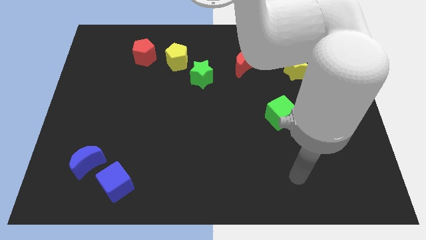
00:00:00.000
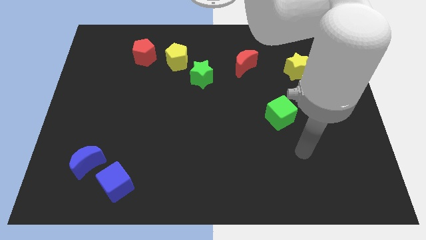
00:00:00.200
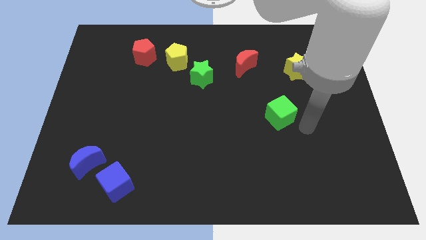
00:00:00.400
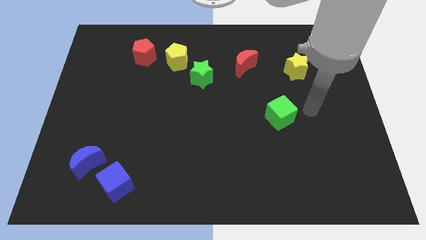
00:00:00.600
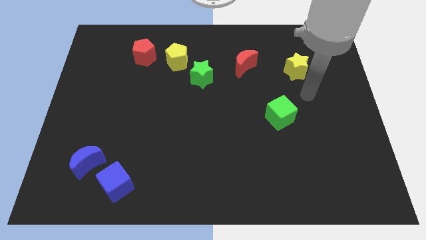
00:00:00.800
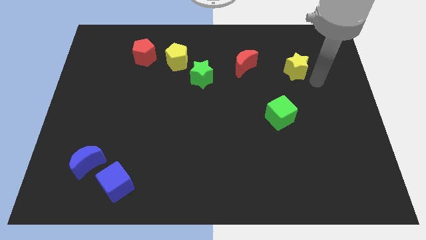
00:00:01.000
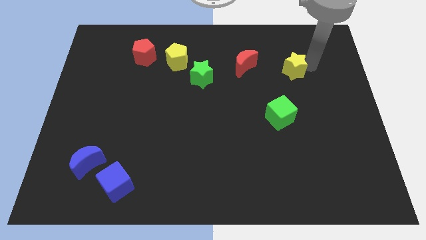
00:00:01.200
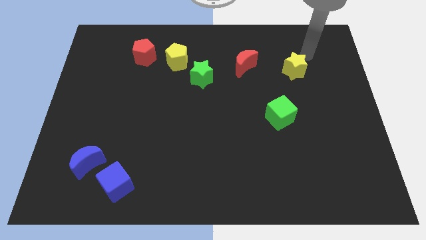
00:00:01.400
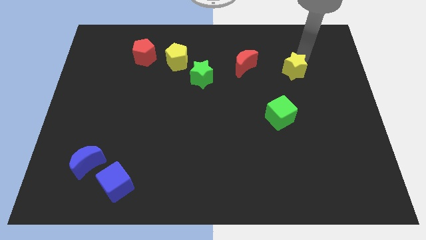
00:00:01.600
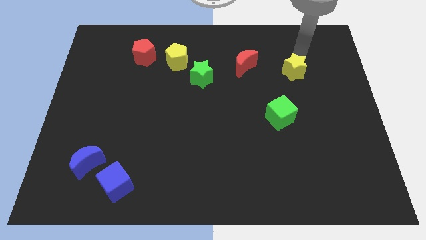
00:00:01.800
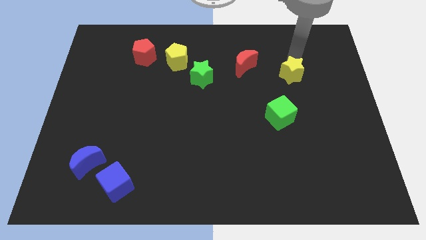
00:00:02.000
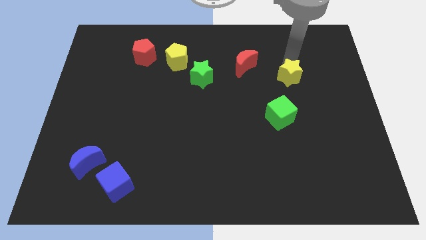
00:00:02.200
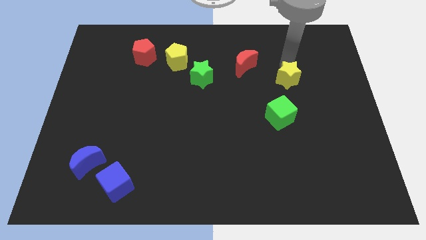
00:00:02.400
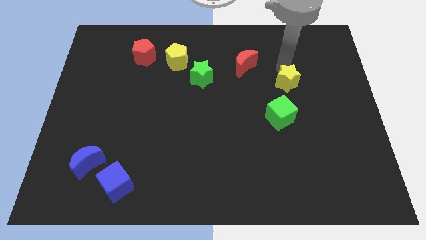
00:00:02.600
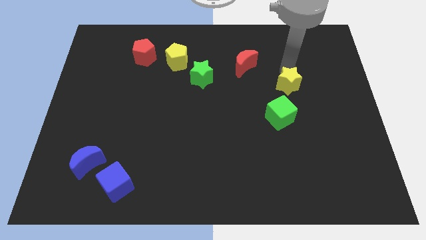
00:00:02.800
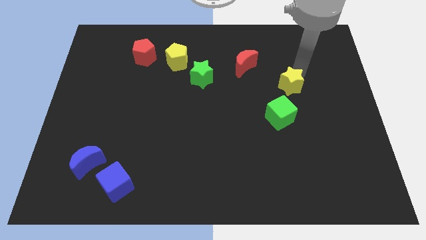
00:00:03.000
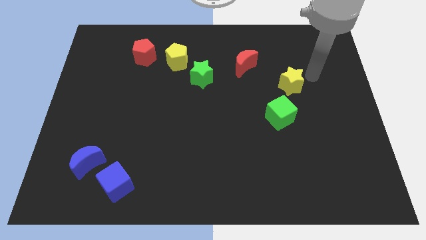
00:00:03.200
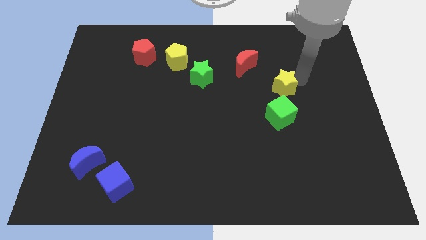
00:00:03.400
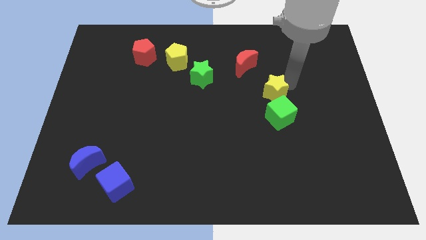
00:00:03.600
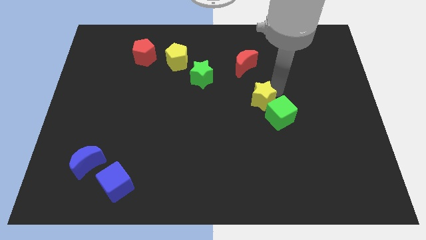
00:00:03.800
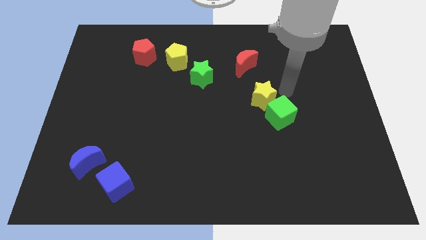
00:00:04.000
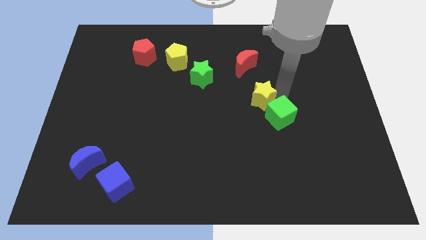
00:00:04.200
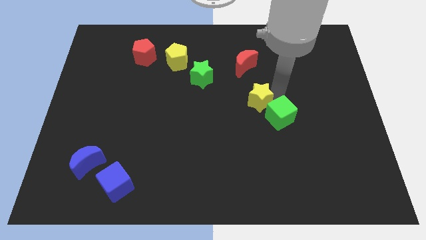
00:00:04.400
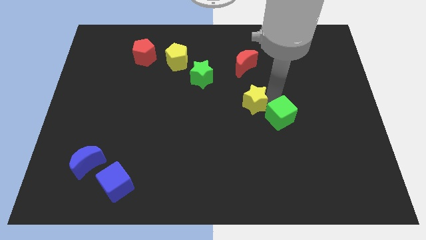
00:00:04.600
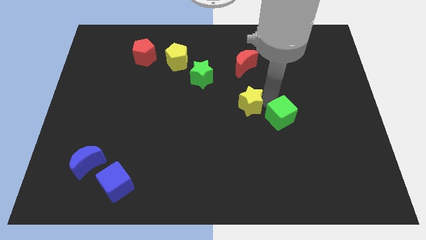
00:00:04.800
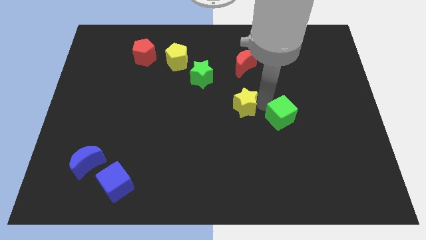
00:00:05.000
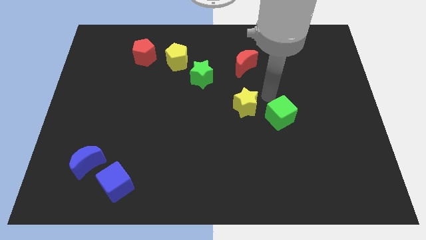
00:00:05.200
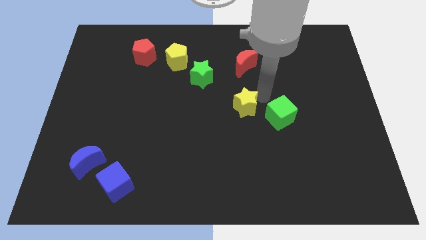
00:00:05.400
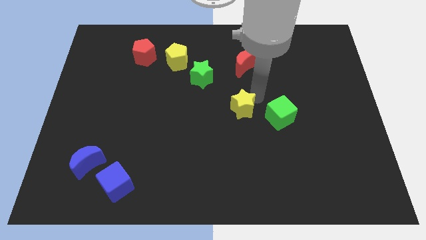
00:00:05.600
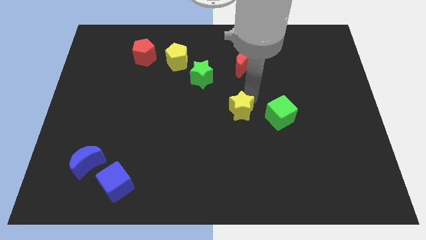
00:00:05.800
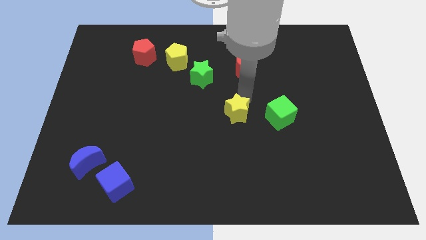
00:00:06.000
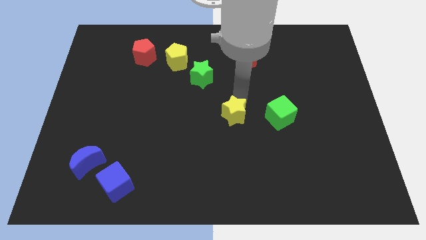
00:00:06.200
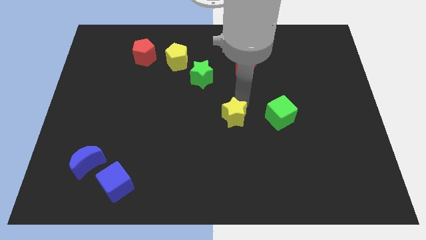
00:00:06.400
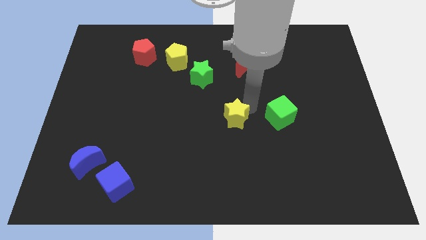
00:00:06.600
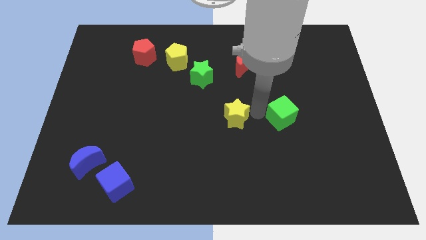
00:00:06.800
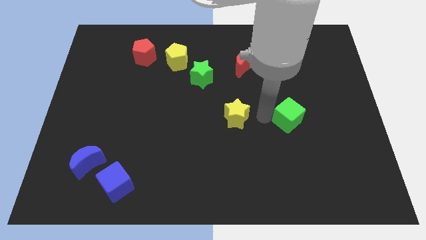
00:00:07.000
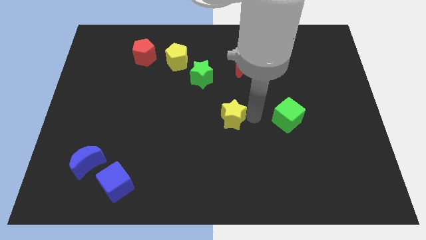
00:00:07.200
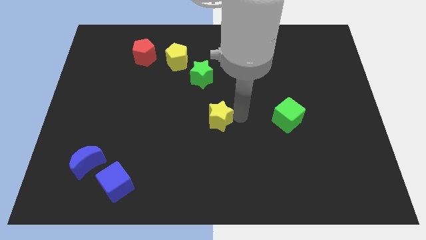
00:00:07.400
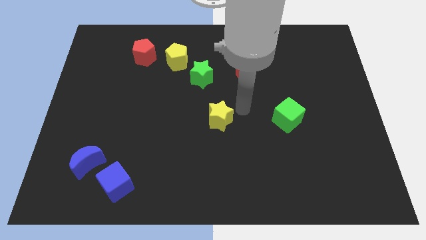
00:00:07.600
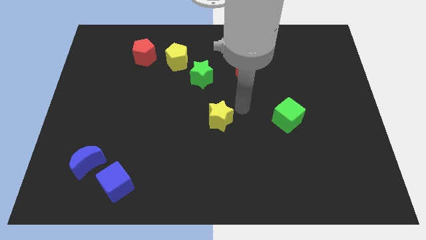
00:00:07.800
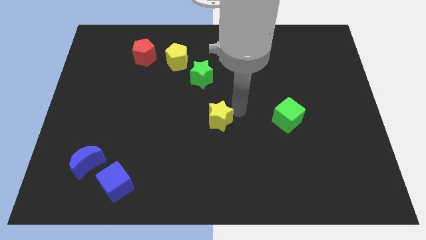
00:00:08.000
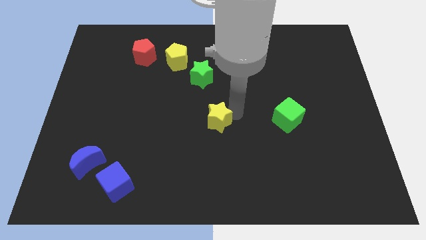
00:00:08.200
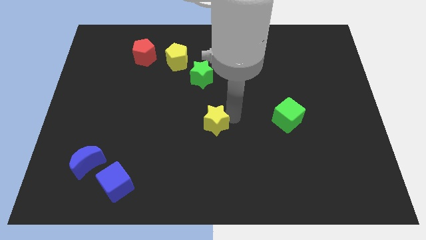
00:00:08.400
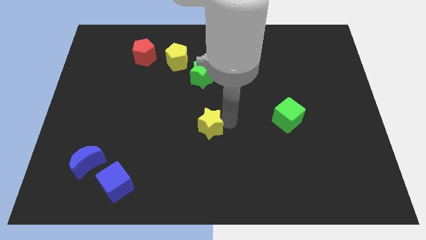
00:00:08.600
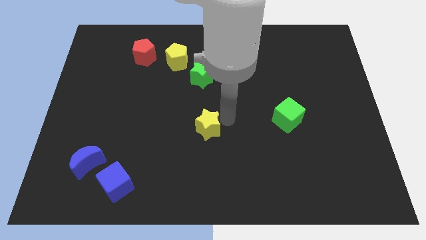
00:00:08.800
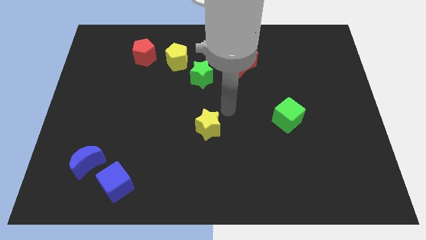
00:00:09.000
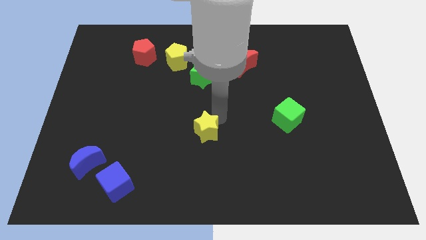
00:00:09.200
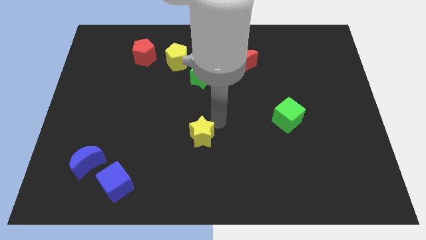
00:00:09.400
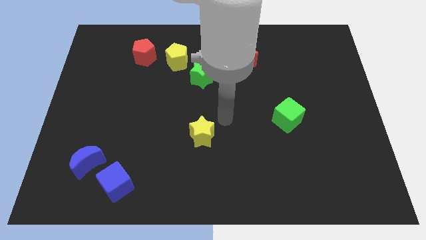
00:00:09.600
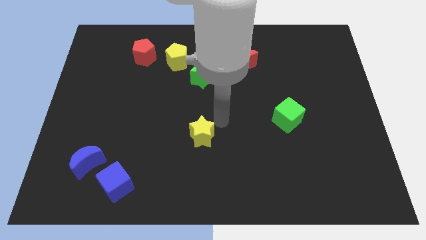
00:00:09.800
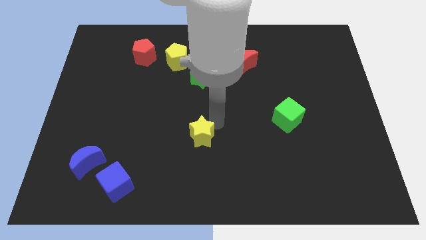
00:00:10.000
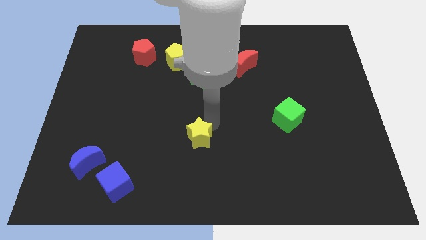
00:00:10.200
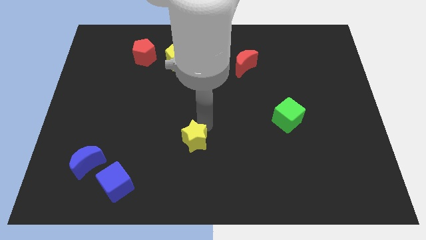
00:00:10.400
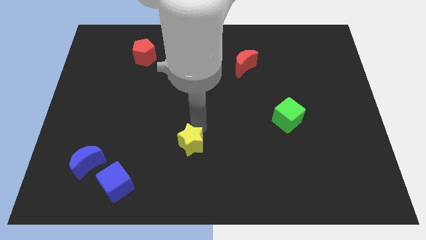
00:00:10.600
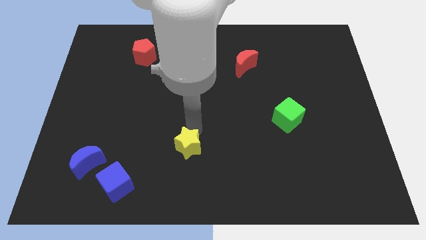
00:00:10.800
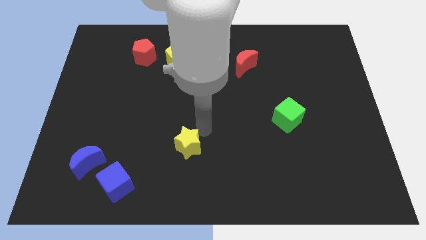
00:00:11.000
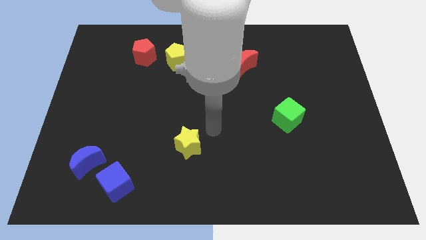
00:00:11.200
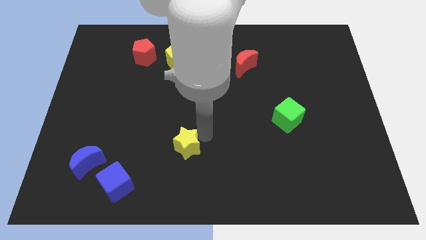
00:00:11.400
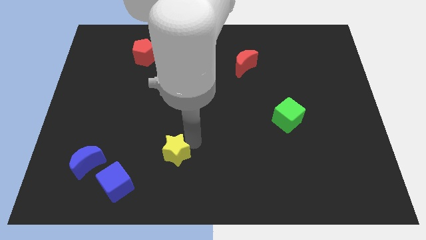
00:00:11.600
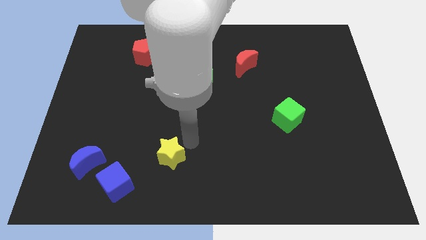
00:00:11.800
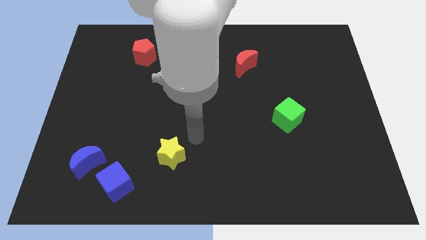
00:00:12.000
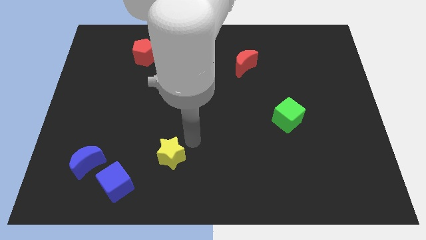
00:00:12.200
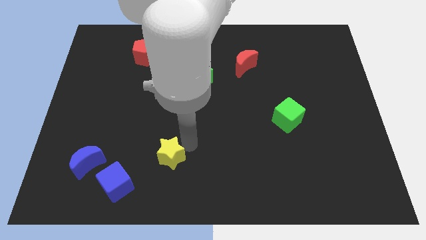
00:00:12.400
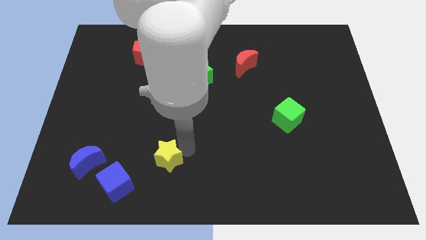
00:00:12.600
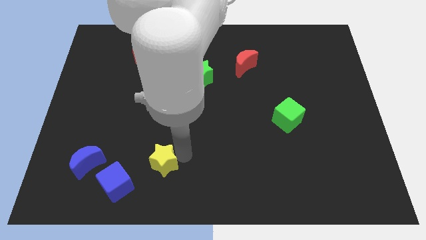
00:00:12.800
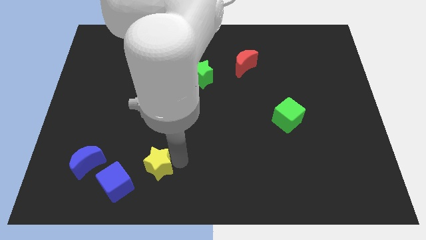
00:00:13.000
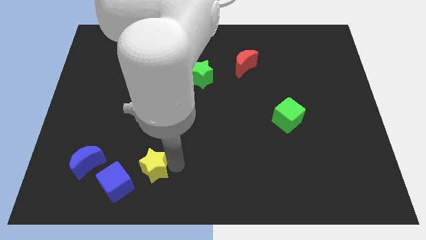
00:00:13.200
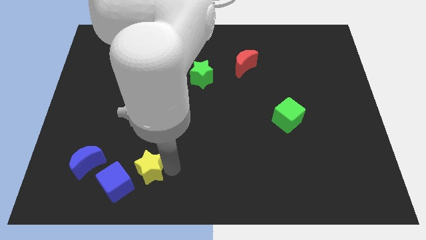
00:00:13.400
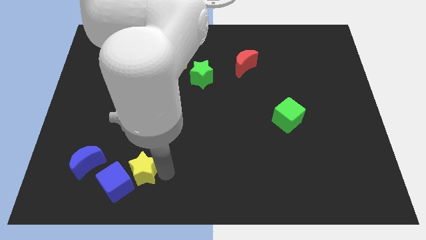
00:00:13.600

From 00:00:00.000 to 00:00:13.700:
put the yellow star to the blue cube

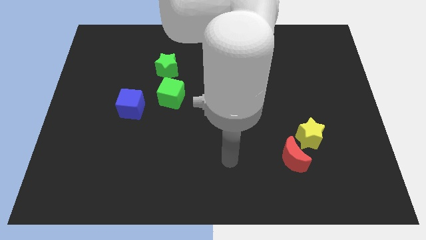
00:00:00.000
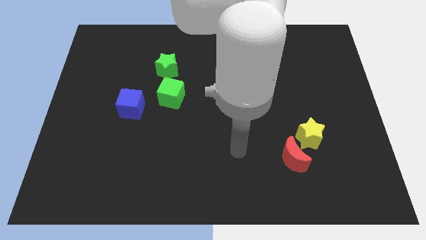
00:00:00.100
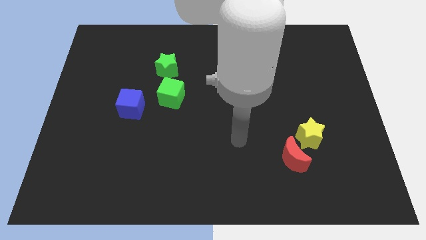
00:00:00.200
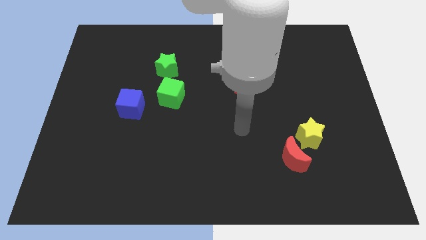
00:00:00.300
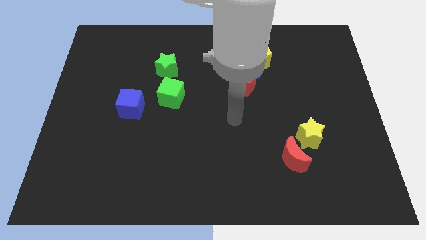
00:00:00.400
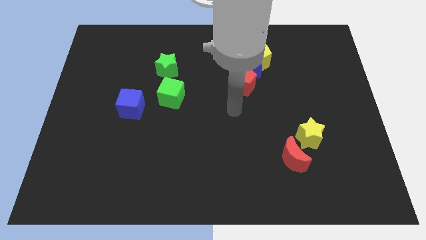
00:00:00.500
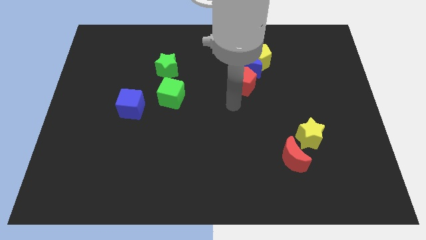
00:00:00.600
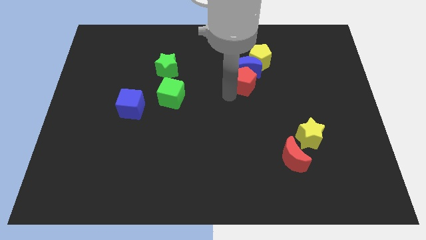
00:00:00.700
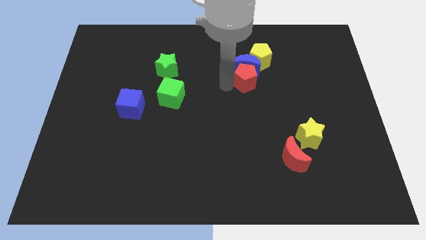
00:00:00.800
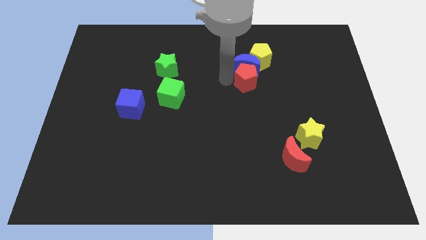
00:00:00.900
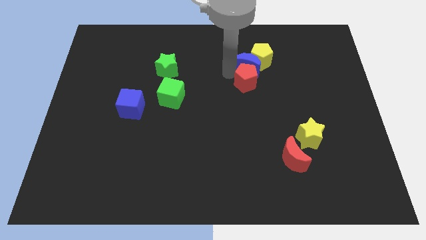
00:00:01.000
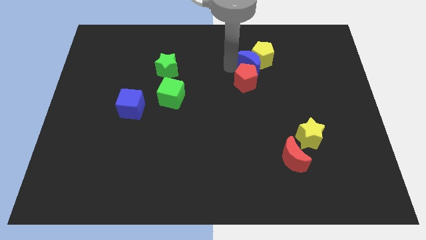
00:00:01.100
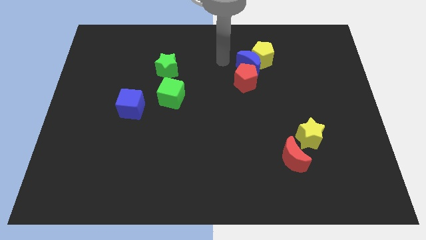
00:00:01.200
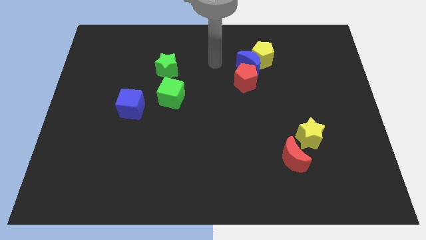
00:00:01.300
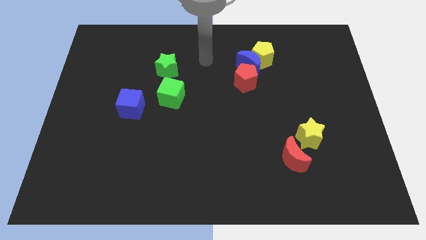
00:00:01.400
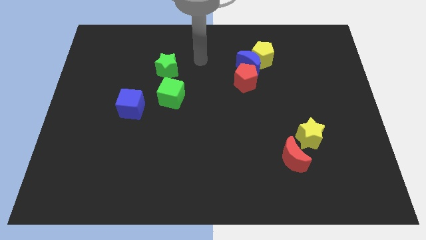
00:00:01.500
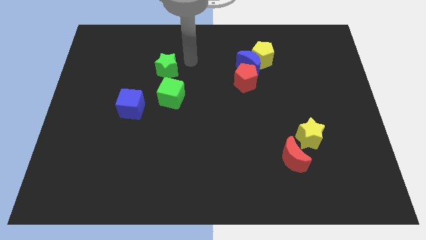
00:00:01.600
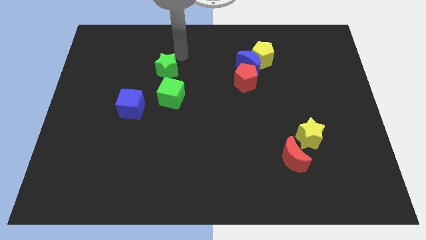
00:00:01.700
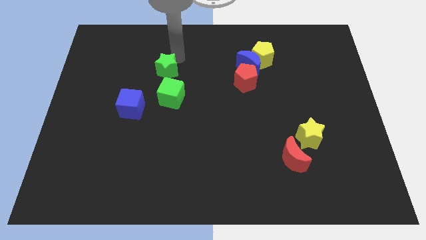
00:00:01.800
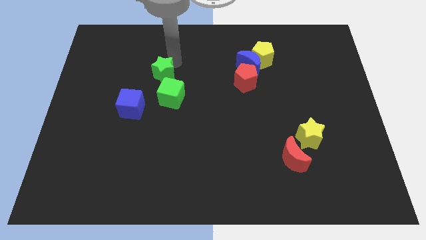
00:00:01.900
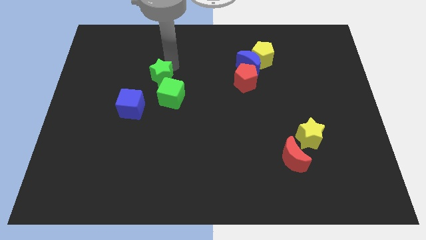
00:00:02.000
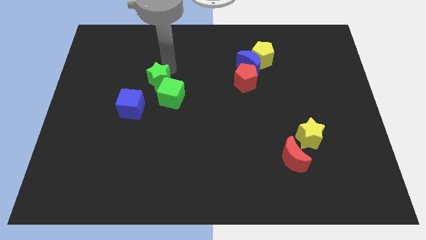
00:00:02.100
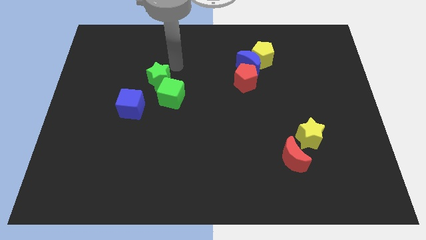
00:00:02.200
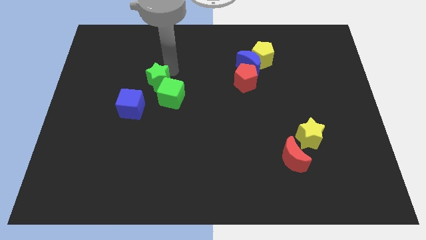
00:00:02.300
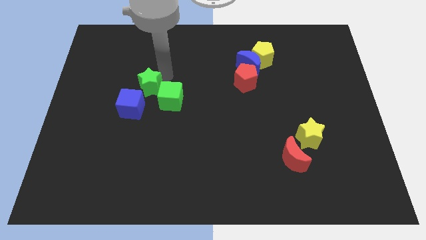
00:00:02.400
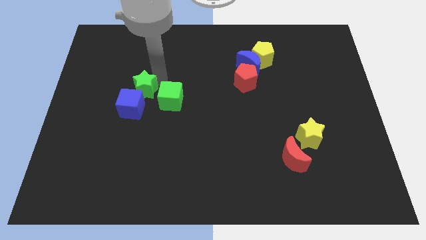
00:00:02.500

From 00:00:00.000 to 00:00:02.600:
move the green star close to the blue cube
